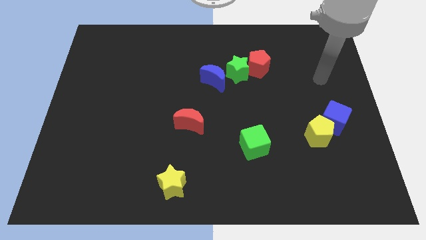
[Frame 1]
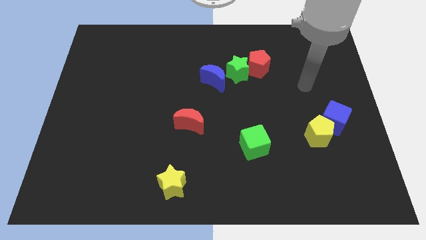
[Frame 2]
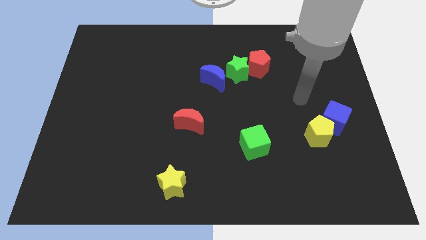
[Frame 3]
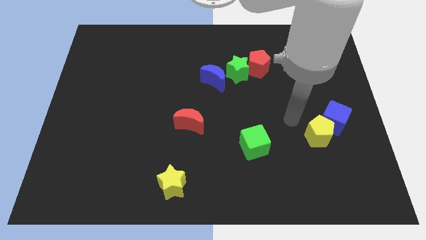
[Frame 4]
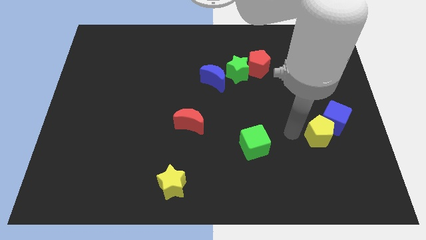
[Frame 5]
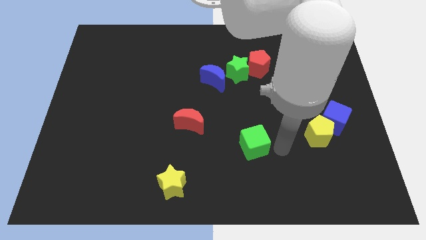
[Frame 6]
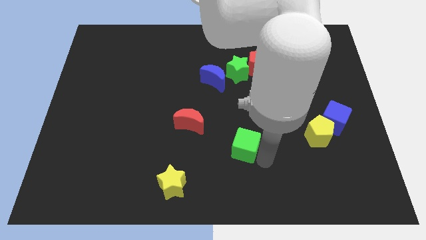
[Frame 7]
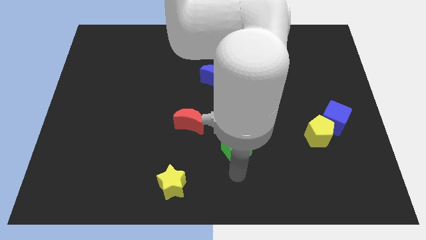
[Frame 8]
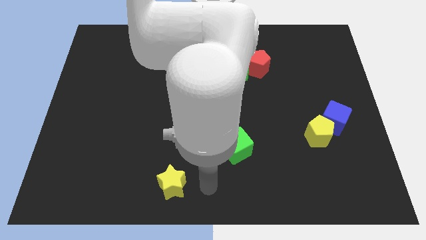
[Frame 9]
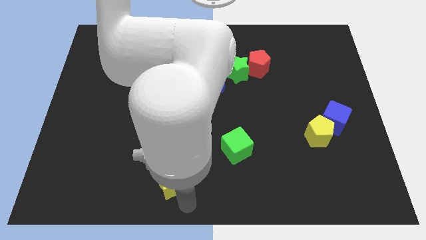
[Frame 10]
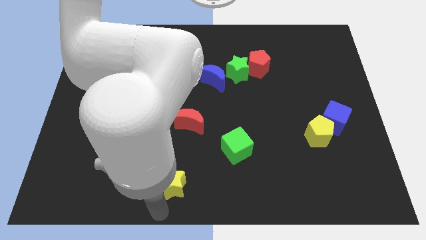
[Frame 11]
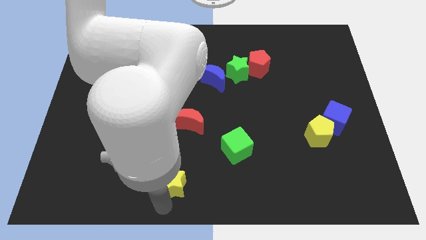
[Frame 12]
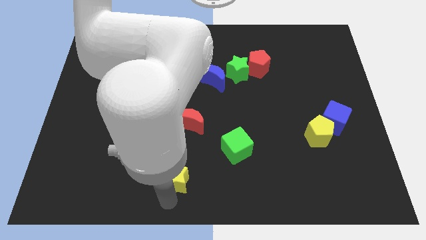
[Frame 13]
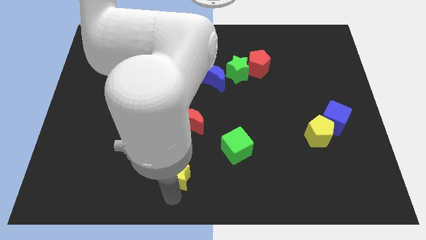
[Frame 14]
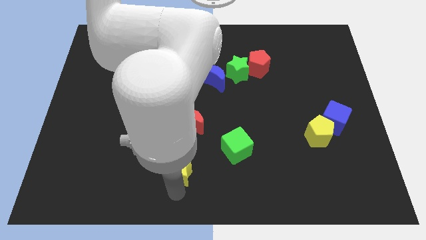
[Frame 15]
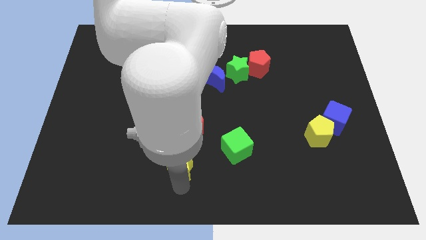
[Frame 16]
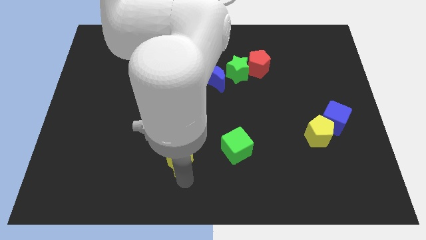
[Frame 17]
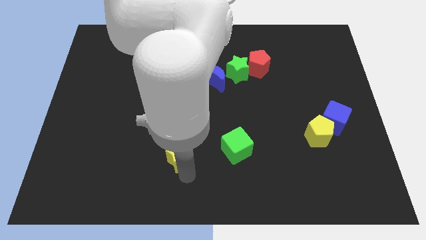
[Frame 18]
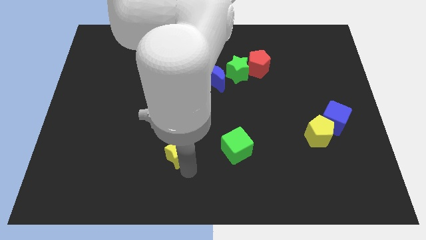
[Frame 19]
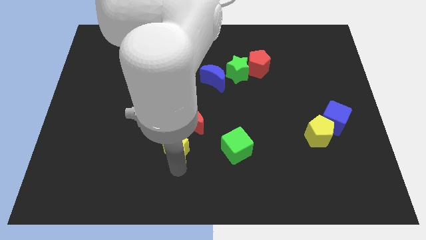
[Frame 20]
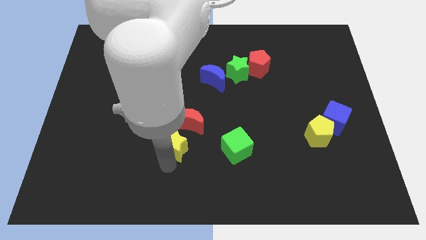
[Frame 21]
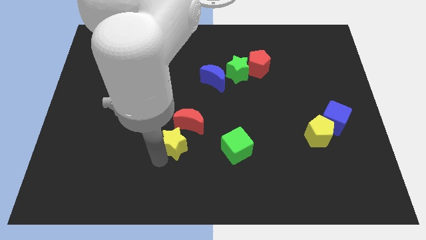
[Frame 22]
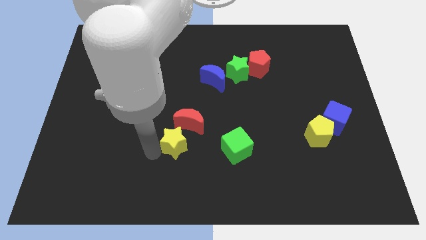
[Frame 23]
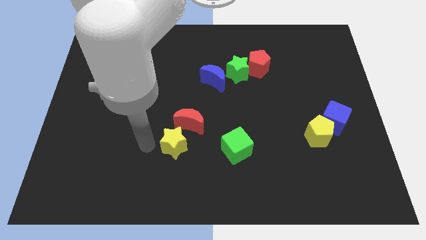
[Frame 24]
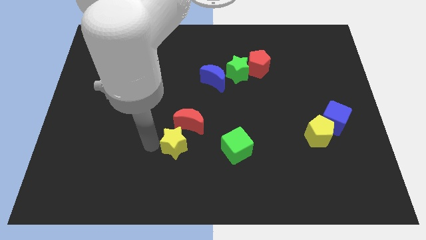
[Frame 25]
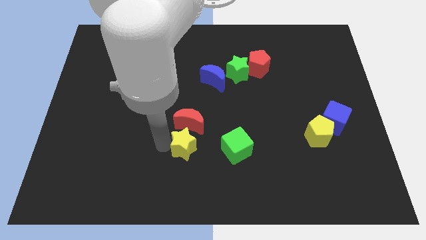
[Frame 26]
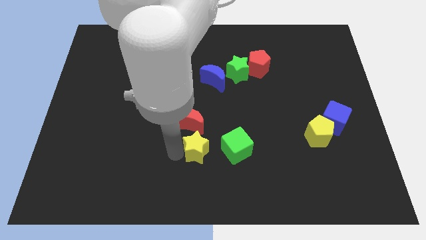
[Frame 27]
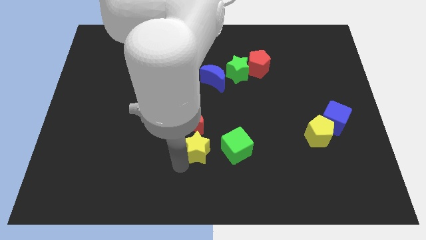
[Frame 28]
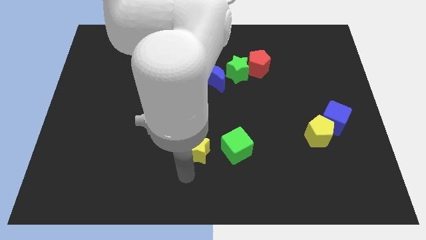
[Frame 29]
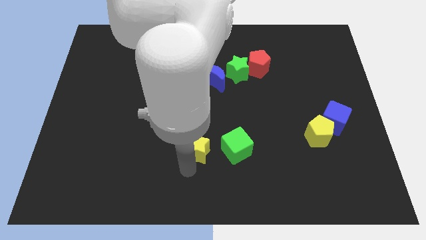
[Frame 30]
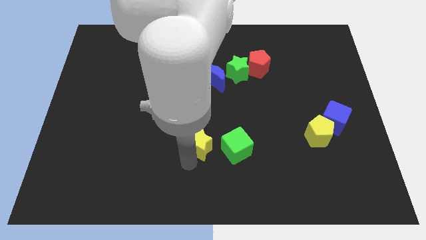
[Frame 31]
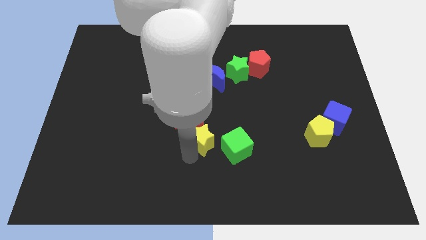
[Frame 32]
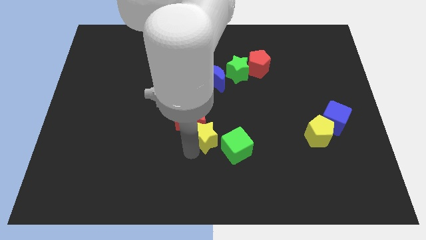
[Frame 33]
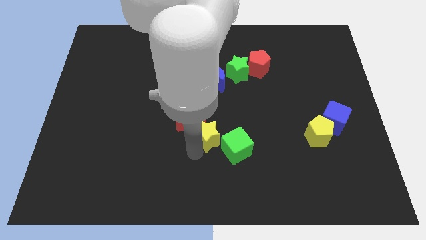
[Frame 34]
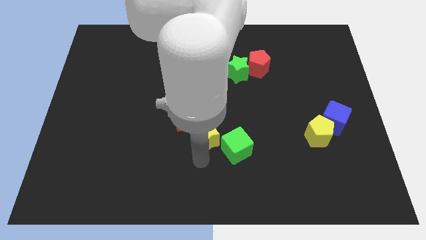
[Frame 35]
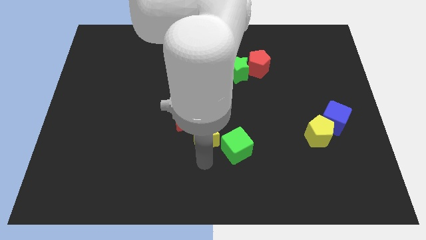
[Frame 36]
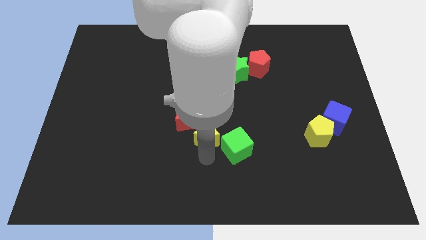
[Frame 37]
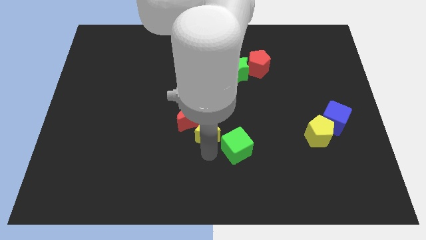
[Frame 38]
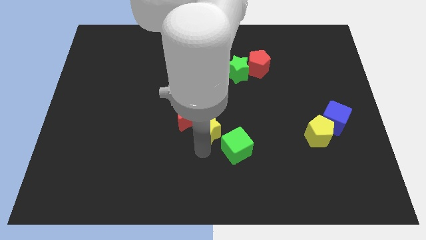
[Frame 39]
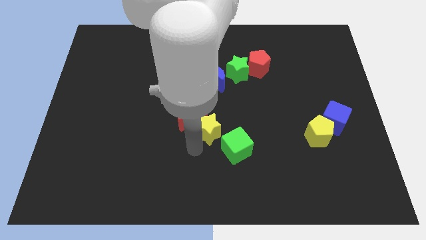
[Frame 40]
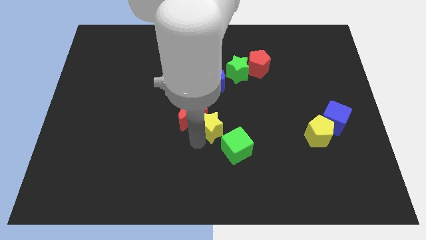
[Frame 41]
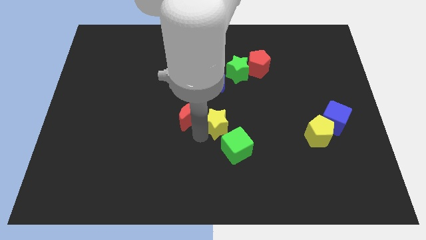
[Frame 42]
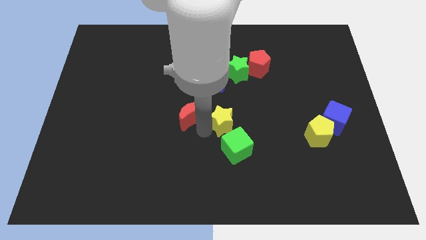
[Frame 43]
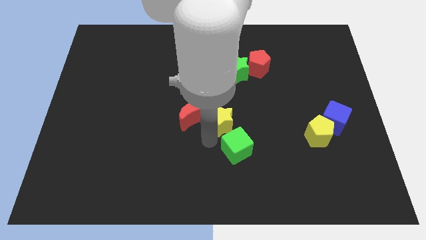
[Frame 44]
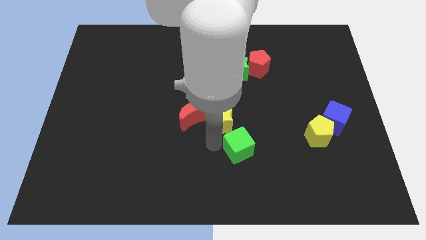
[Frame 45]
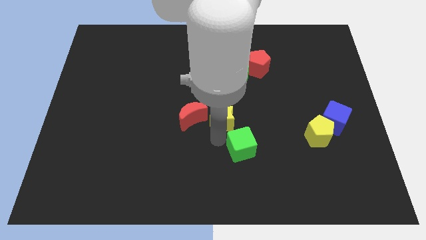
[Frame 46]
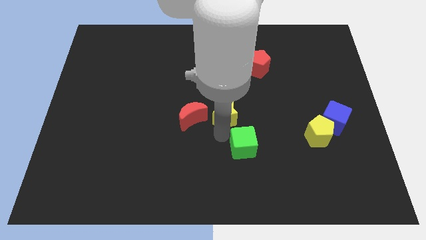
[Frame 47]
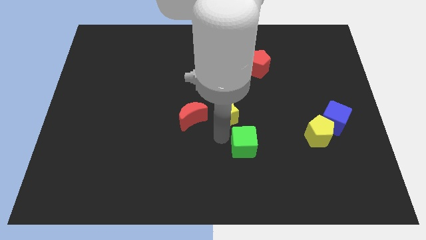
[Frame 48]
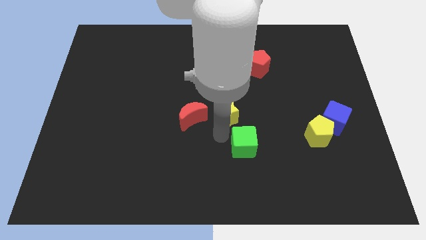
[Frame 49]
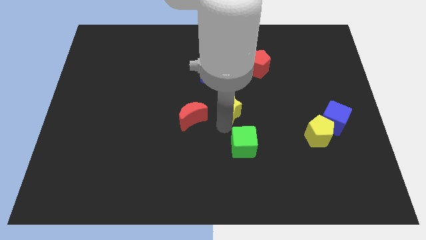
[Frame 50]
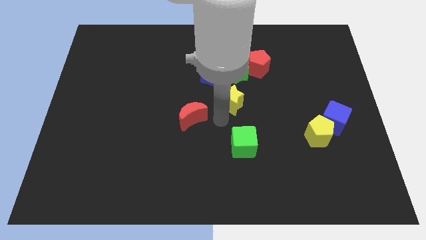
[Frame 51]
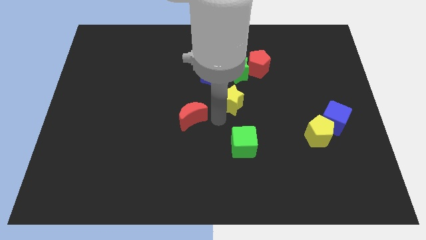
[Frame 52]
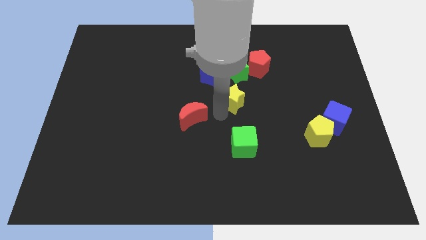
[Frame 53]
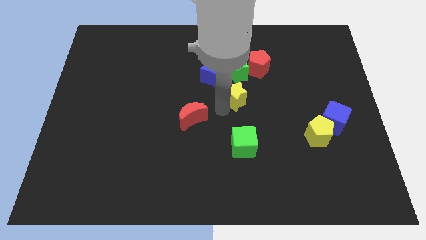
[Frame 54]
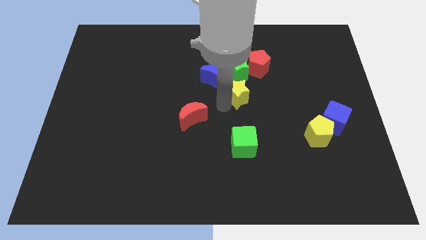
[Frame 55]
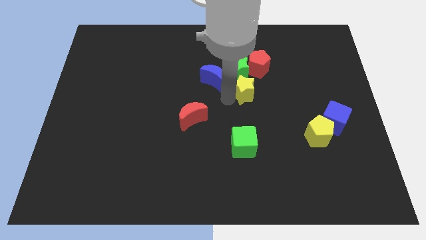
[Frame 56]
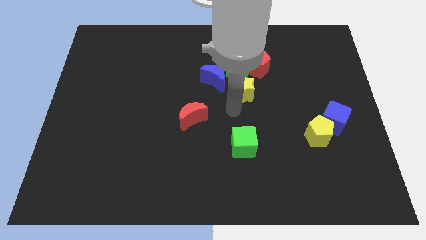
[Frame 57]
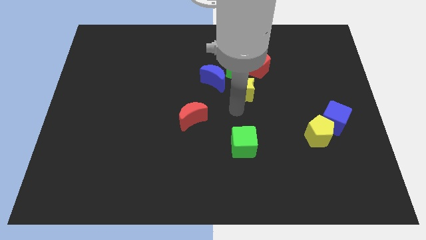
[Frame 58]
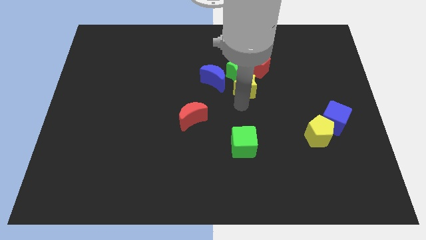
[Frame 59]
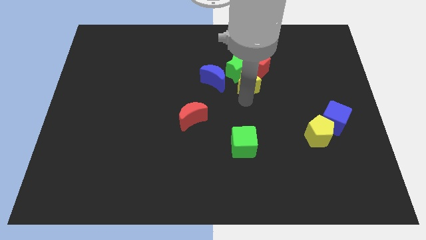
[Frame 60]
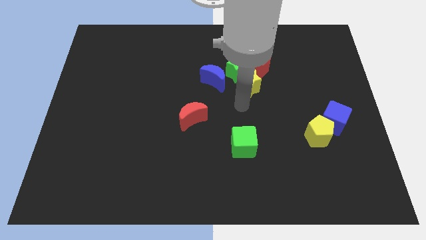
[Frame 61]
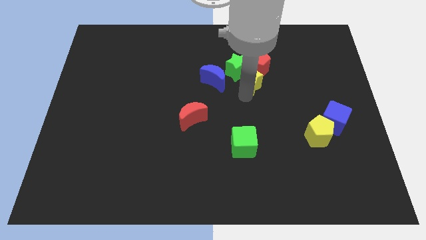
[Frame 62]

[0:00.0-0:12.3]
push the yellow star close to the red pentagon

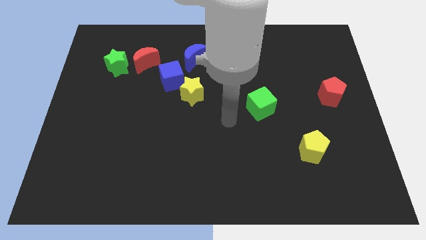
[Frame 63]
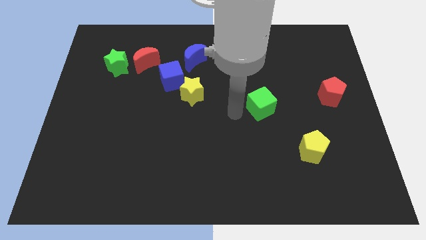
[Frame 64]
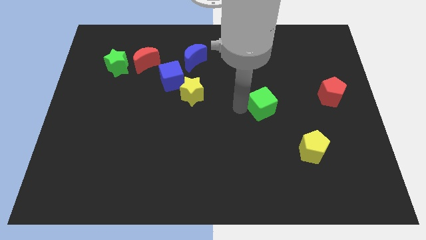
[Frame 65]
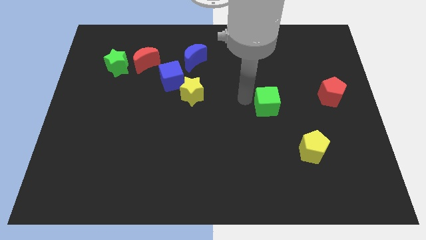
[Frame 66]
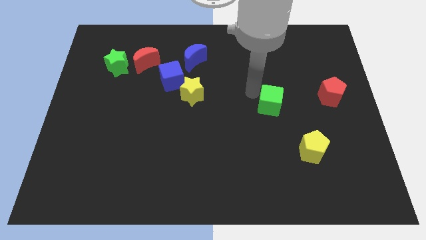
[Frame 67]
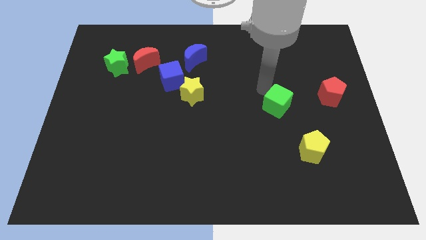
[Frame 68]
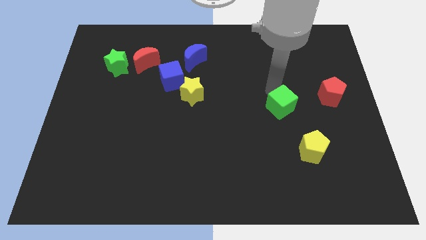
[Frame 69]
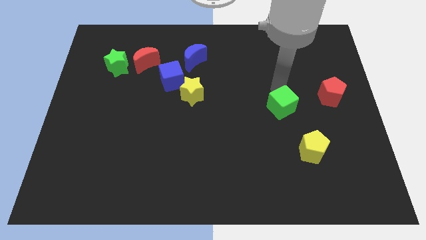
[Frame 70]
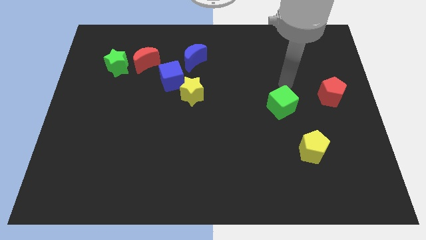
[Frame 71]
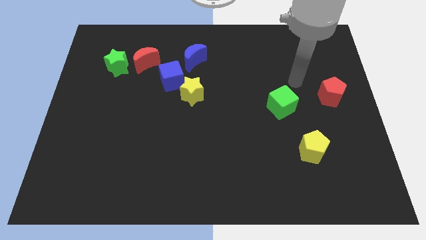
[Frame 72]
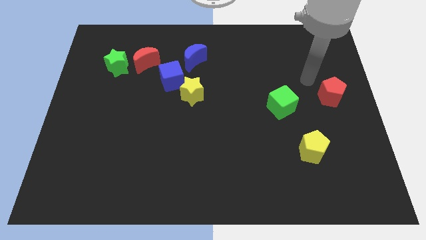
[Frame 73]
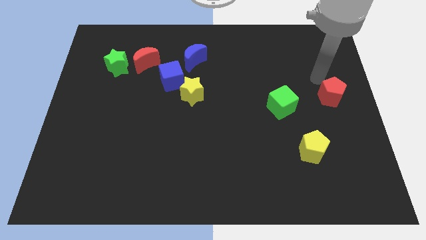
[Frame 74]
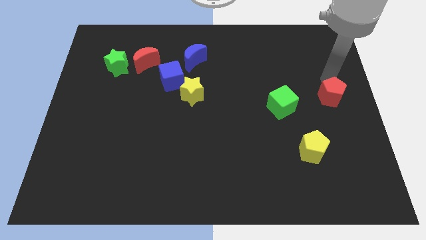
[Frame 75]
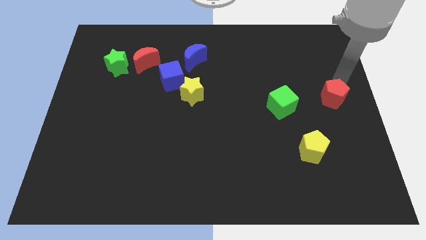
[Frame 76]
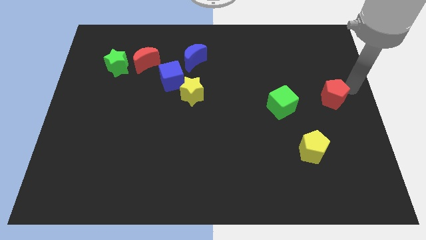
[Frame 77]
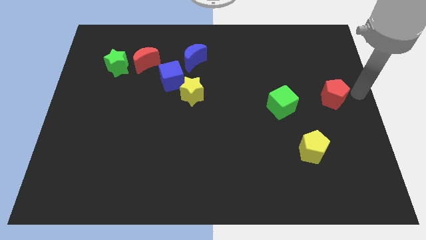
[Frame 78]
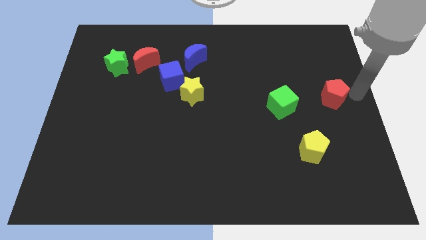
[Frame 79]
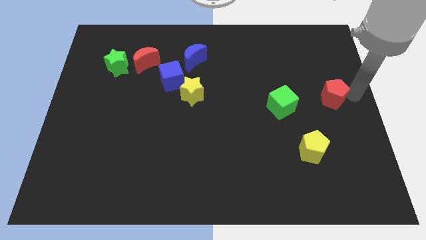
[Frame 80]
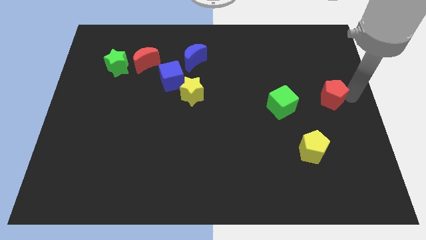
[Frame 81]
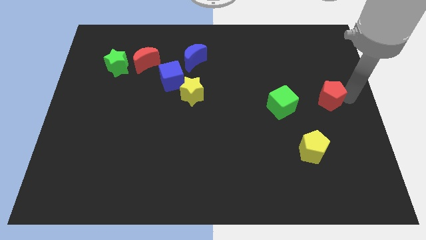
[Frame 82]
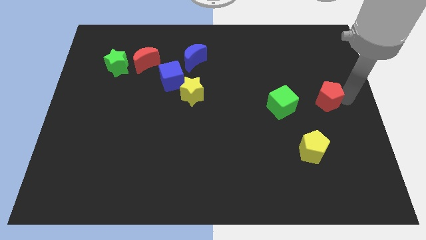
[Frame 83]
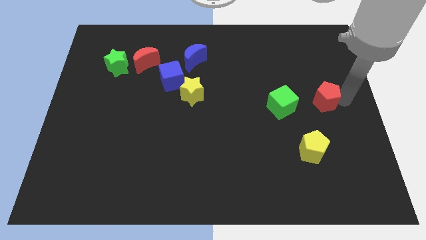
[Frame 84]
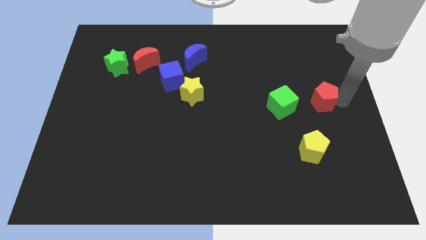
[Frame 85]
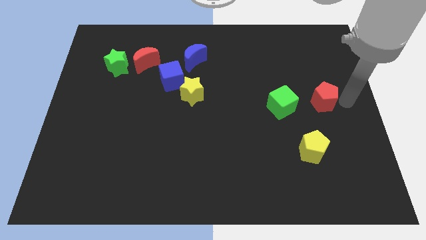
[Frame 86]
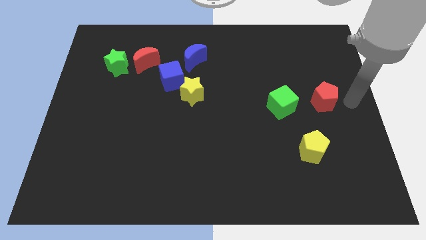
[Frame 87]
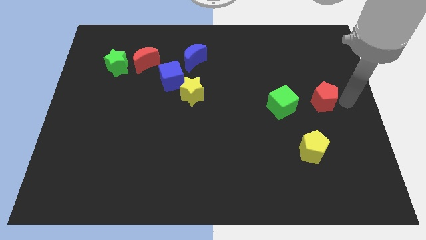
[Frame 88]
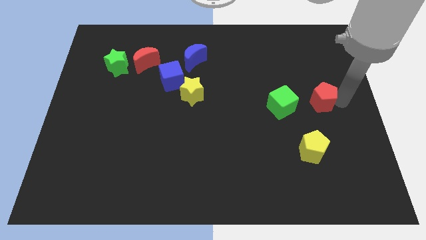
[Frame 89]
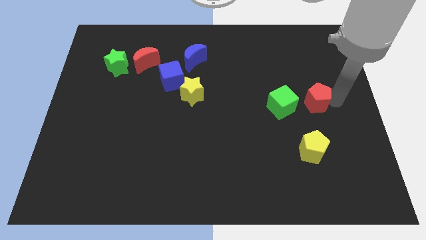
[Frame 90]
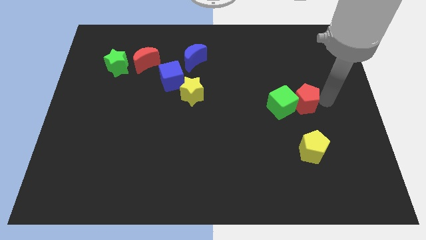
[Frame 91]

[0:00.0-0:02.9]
put the red pentagon towards the green cube
